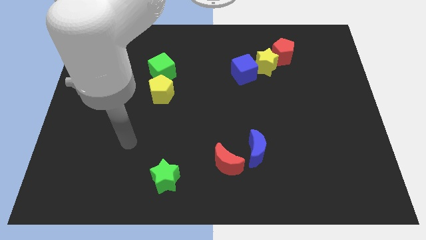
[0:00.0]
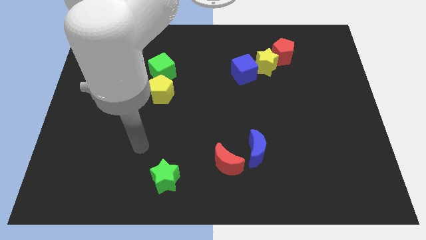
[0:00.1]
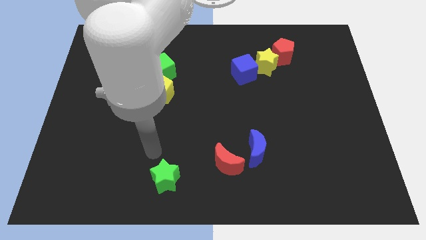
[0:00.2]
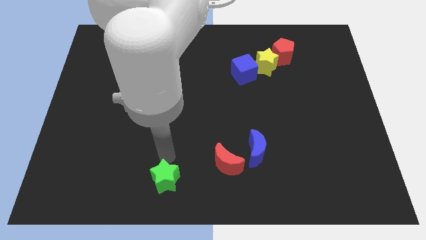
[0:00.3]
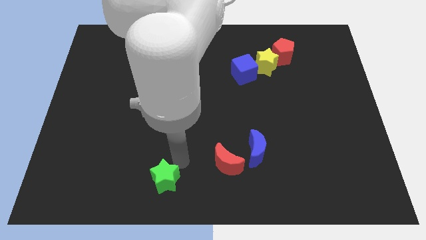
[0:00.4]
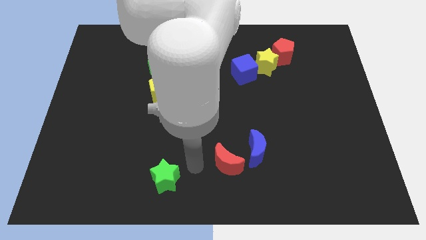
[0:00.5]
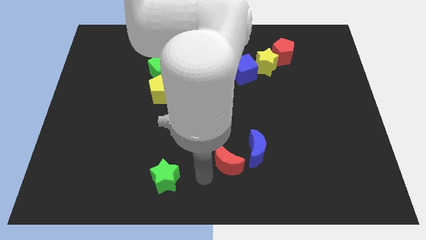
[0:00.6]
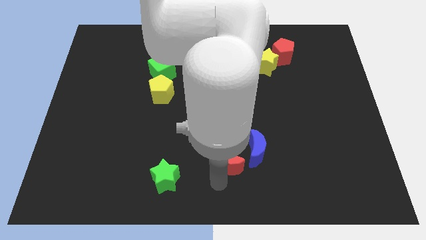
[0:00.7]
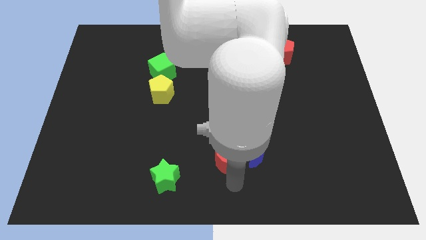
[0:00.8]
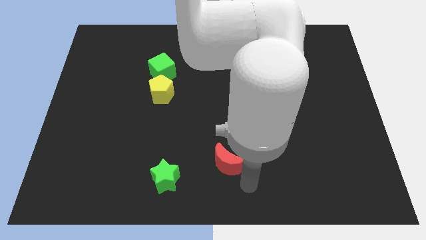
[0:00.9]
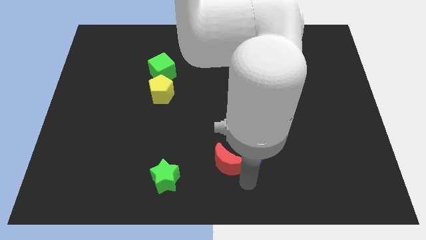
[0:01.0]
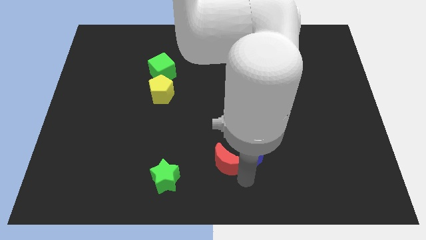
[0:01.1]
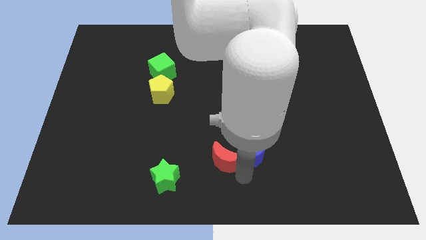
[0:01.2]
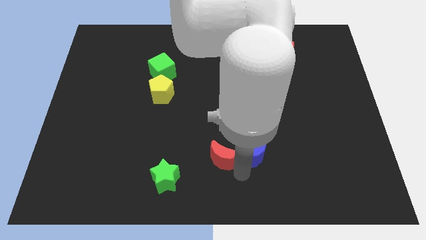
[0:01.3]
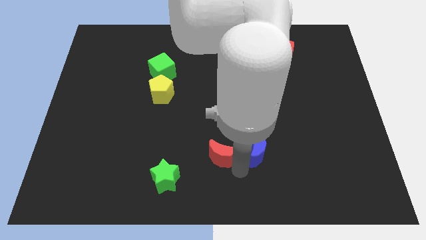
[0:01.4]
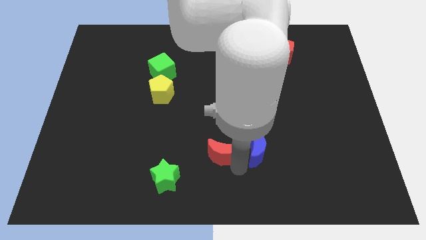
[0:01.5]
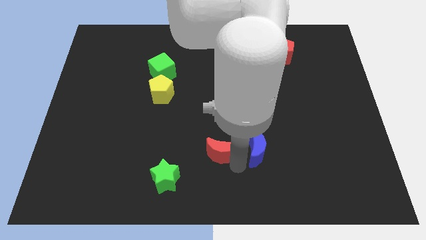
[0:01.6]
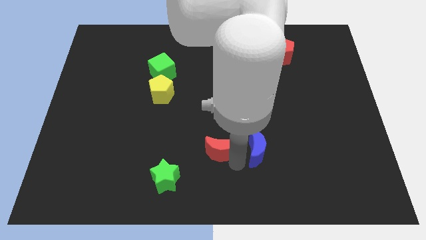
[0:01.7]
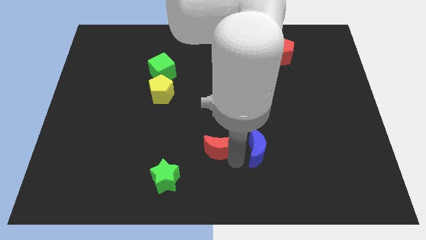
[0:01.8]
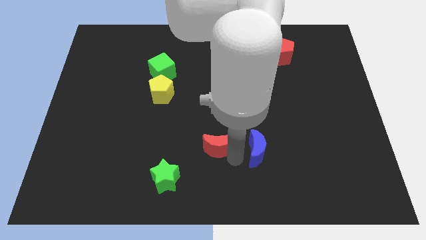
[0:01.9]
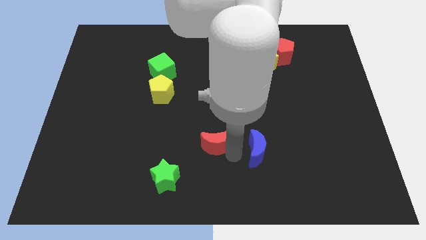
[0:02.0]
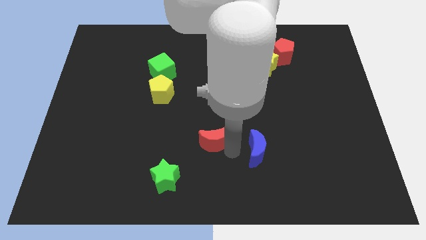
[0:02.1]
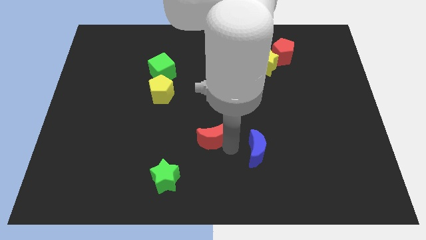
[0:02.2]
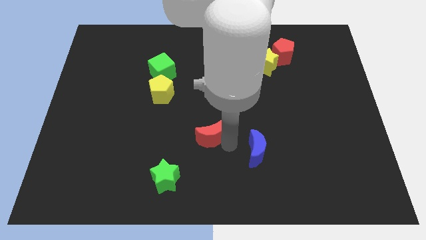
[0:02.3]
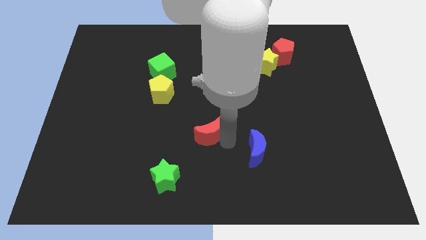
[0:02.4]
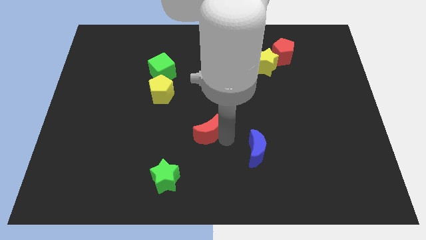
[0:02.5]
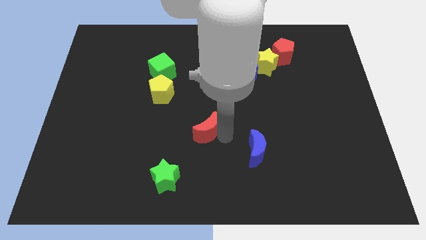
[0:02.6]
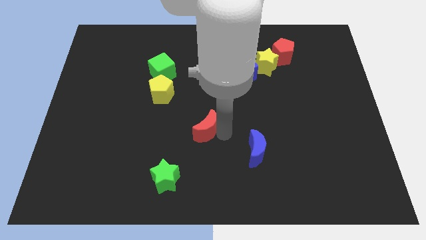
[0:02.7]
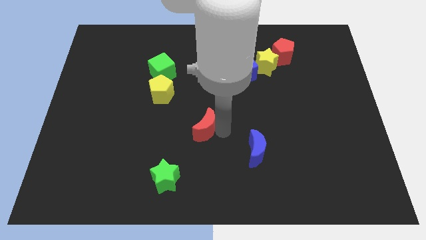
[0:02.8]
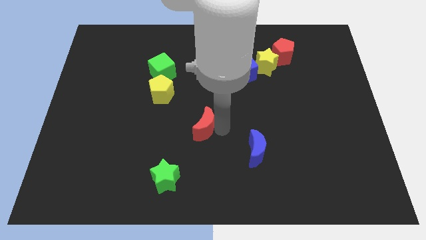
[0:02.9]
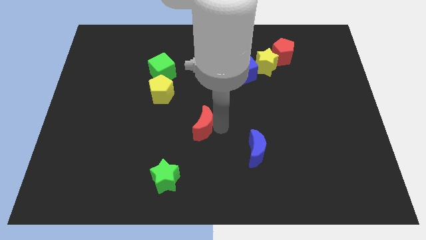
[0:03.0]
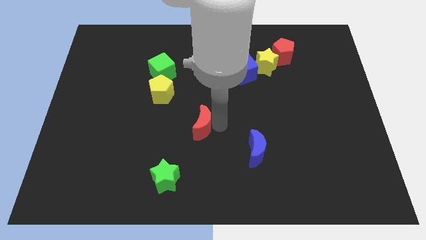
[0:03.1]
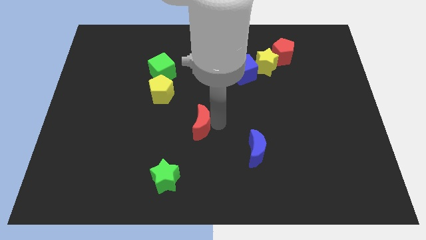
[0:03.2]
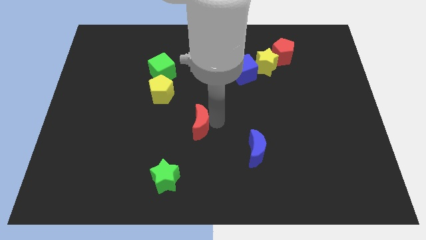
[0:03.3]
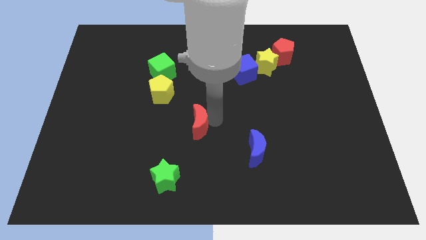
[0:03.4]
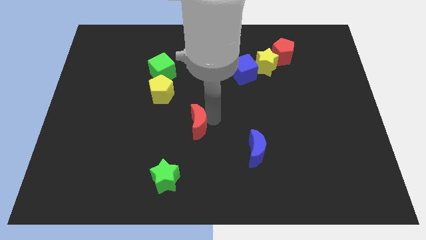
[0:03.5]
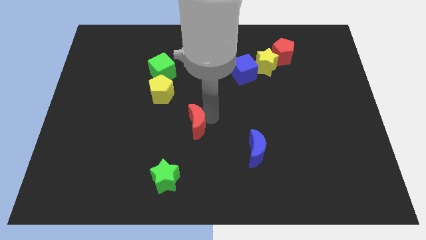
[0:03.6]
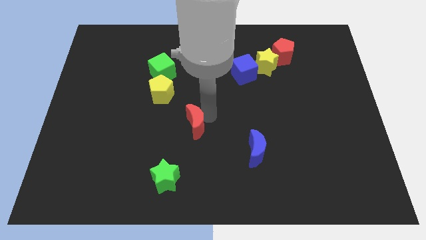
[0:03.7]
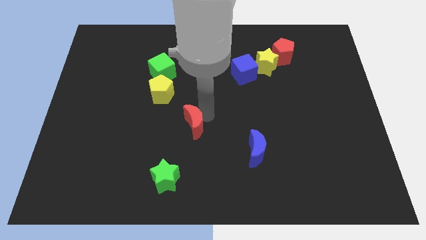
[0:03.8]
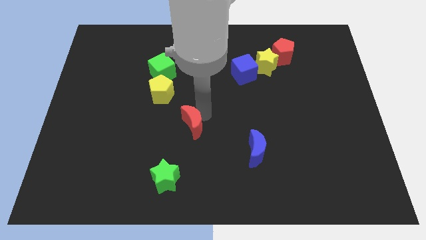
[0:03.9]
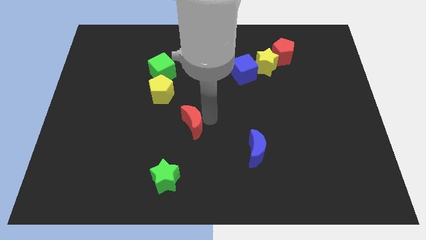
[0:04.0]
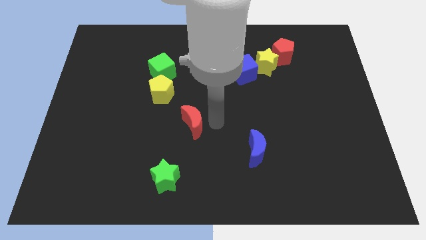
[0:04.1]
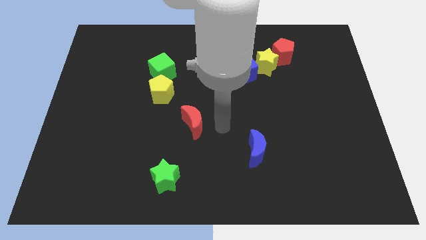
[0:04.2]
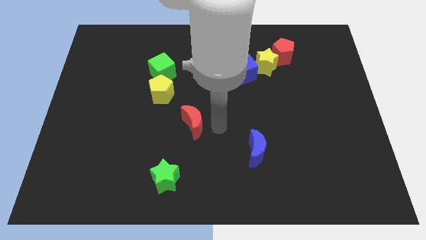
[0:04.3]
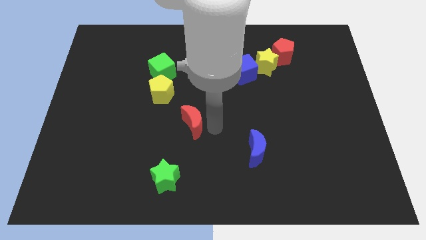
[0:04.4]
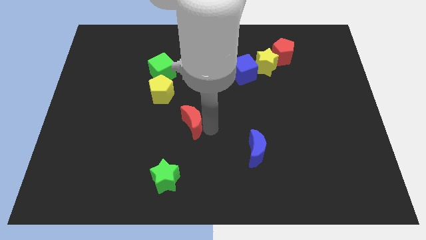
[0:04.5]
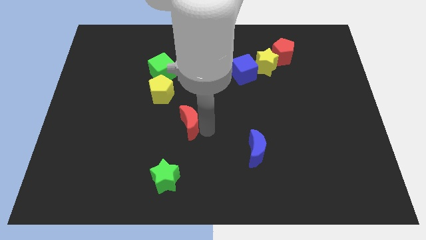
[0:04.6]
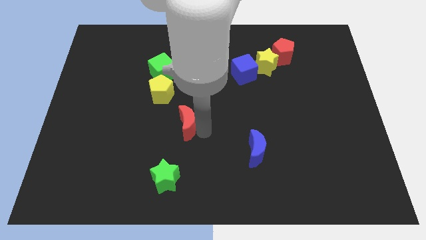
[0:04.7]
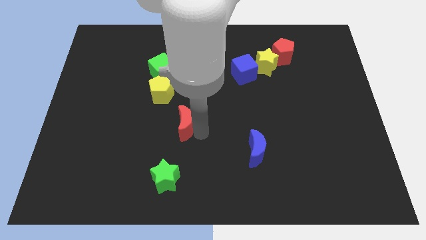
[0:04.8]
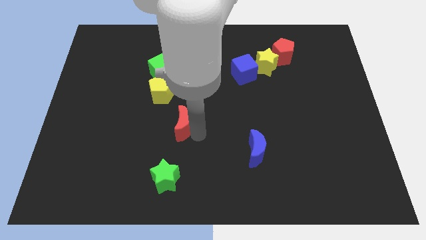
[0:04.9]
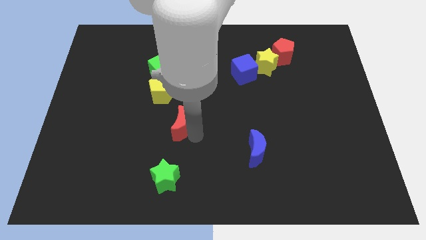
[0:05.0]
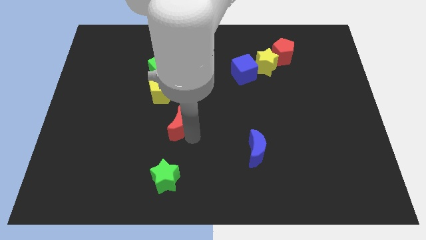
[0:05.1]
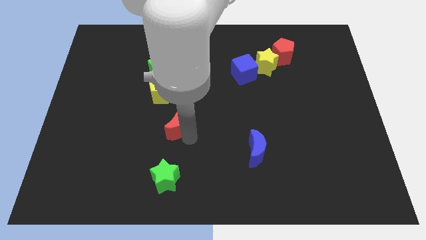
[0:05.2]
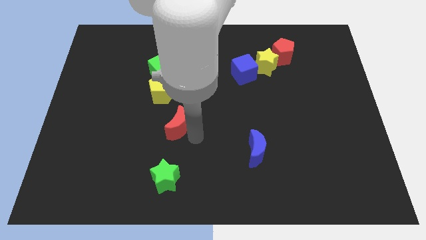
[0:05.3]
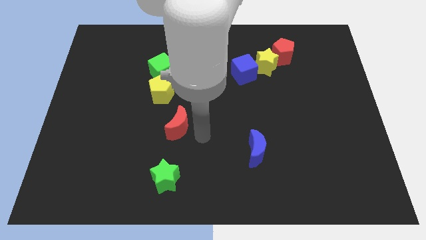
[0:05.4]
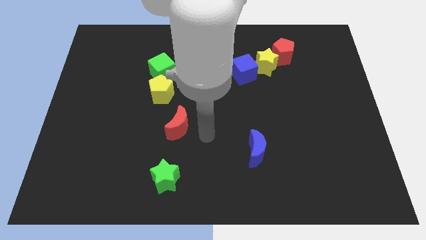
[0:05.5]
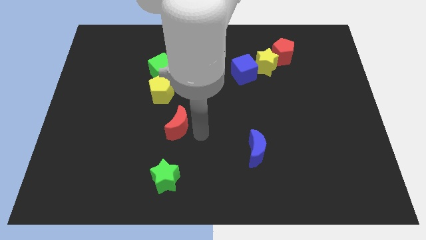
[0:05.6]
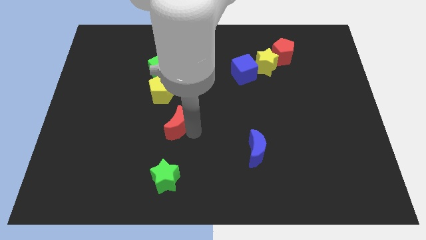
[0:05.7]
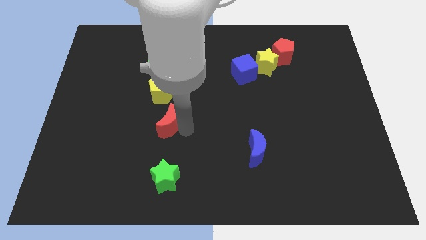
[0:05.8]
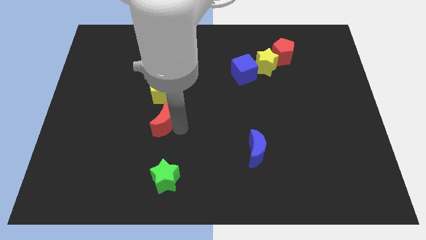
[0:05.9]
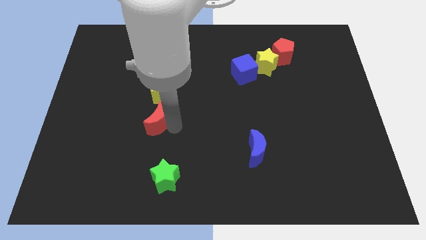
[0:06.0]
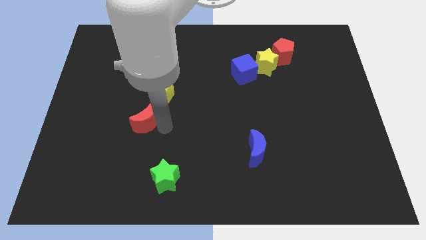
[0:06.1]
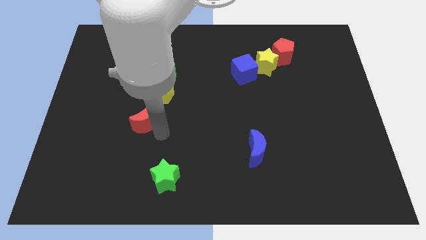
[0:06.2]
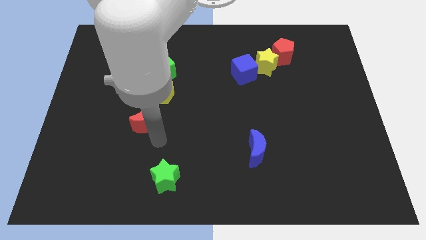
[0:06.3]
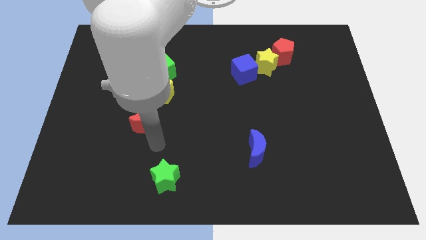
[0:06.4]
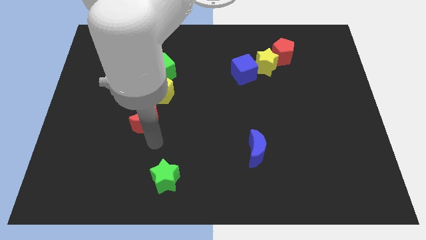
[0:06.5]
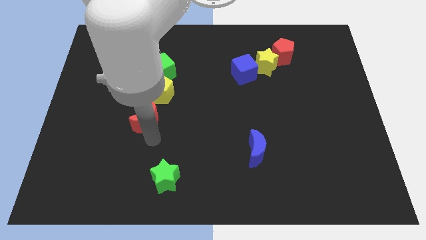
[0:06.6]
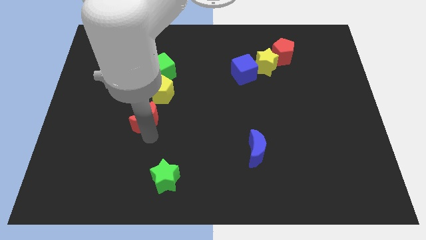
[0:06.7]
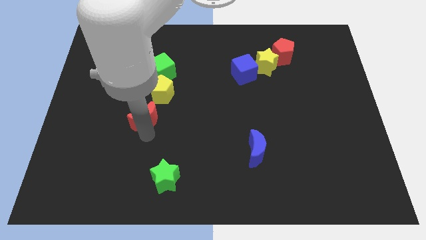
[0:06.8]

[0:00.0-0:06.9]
push the red moon upwards and then to the left

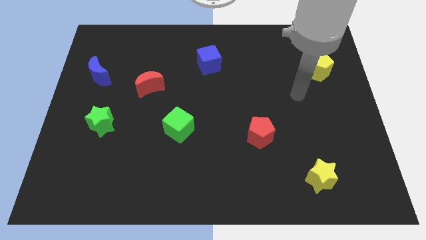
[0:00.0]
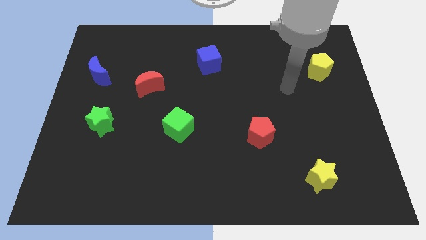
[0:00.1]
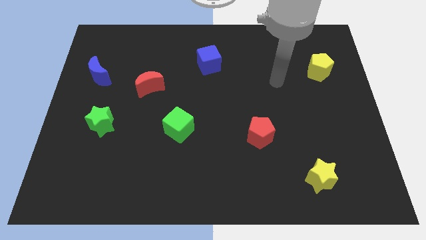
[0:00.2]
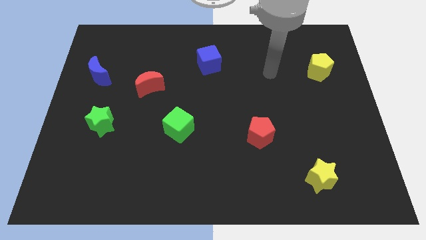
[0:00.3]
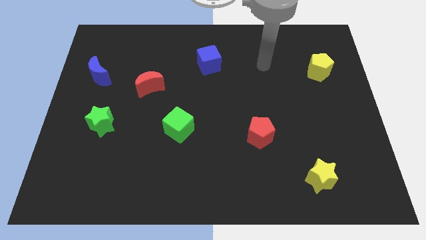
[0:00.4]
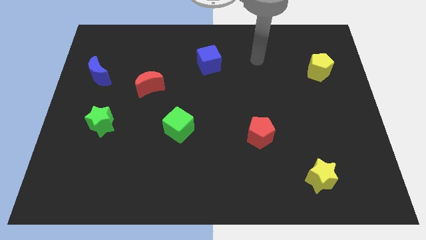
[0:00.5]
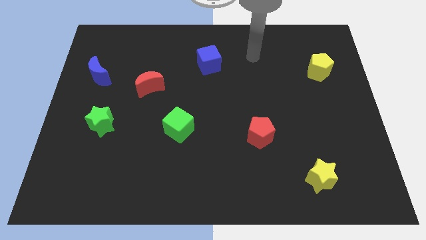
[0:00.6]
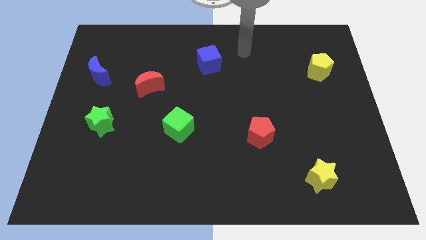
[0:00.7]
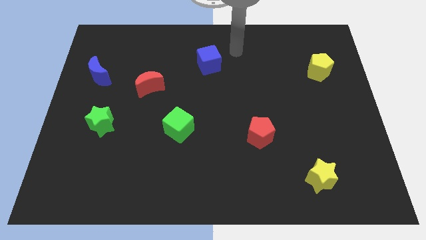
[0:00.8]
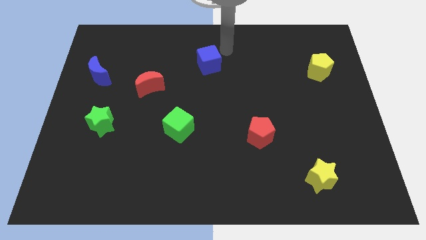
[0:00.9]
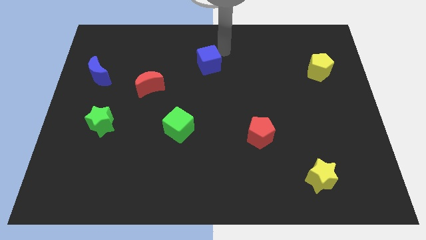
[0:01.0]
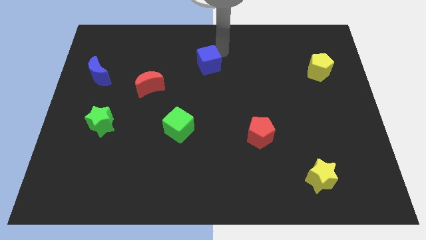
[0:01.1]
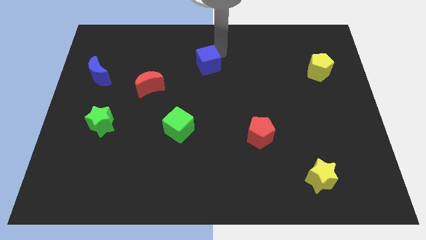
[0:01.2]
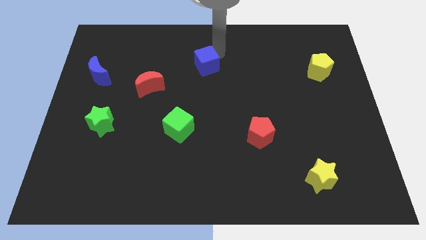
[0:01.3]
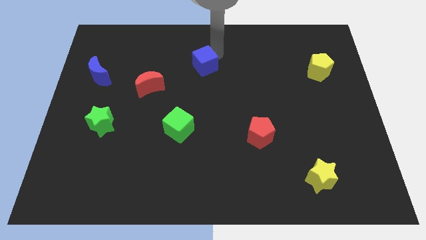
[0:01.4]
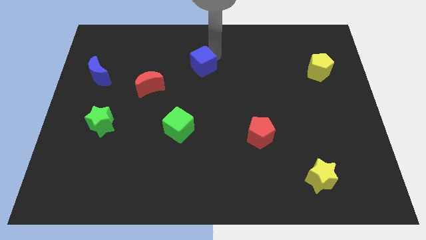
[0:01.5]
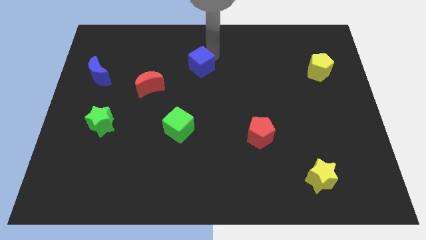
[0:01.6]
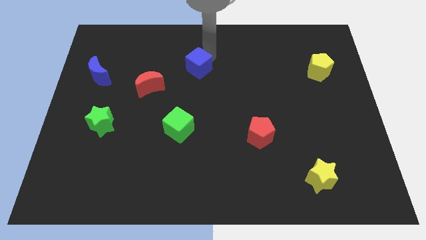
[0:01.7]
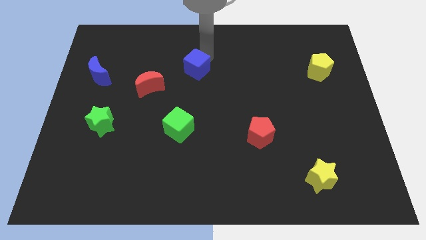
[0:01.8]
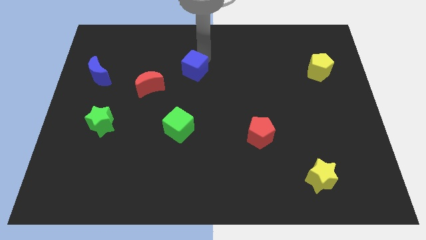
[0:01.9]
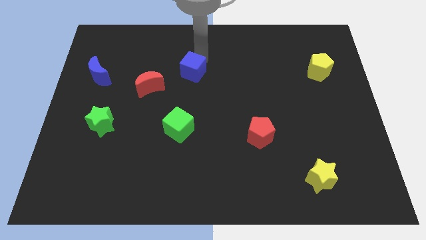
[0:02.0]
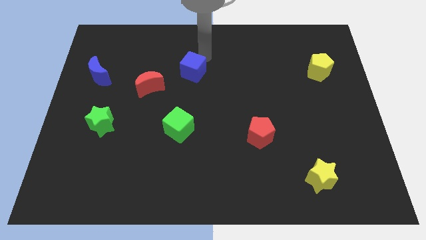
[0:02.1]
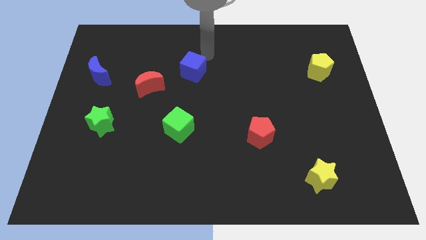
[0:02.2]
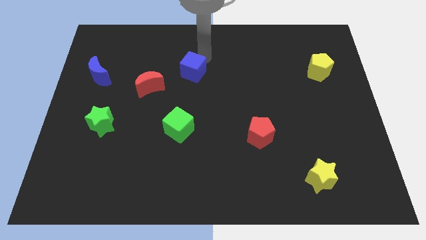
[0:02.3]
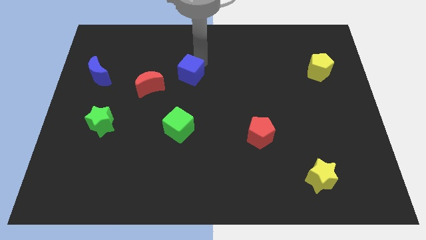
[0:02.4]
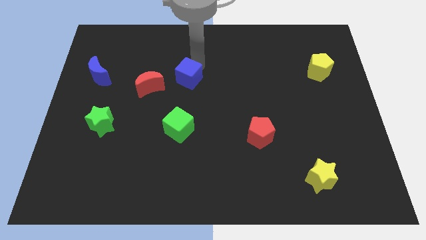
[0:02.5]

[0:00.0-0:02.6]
move the blue cube a little diagonally downwards and to the left
